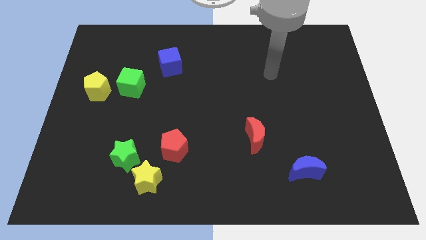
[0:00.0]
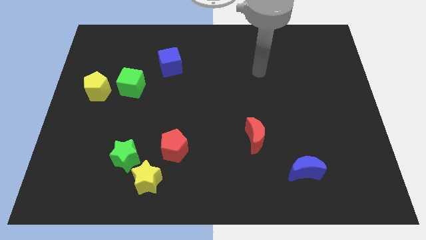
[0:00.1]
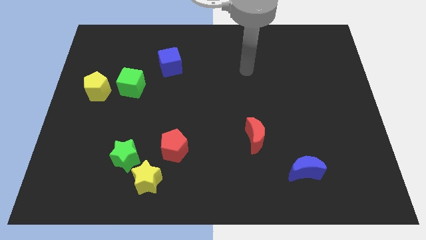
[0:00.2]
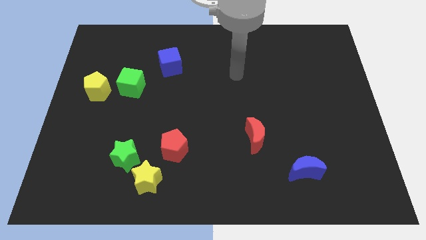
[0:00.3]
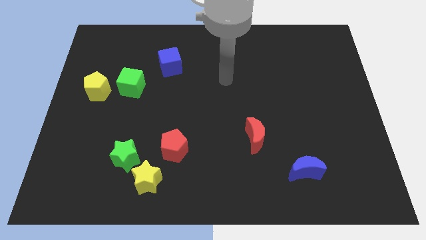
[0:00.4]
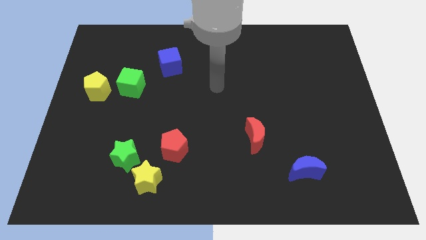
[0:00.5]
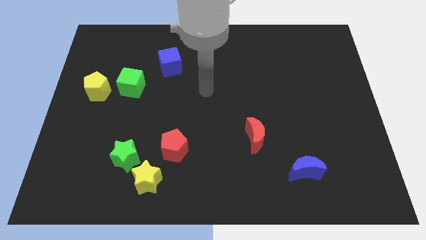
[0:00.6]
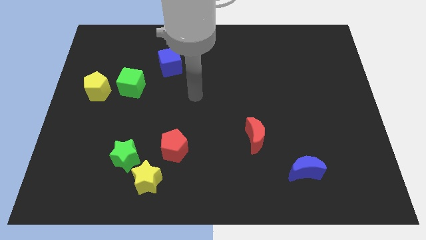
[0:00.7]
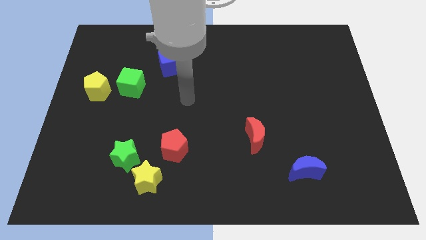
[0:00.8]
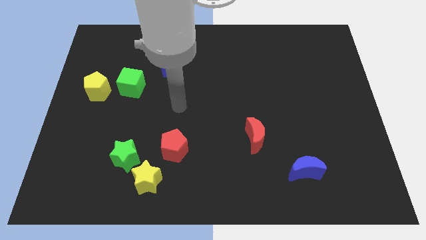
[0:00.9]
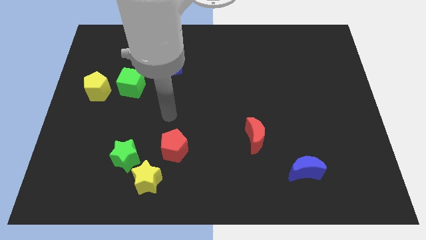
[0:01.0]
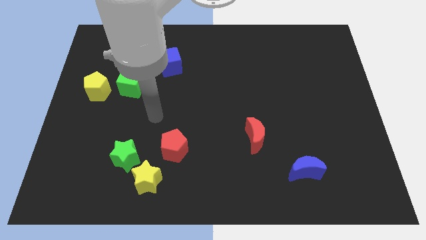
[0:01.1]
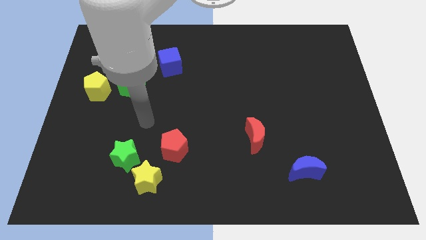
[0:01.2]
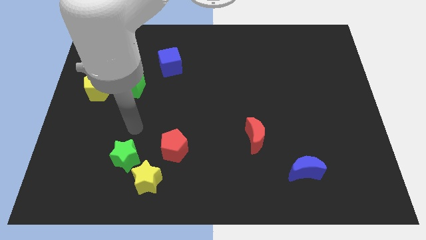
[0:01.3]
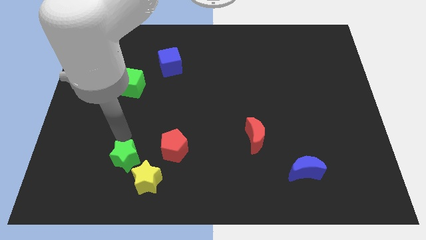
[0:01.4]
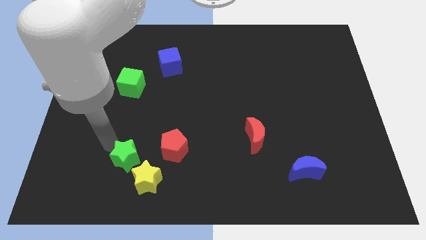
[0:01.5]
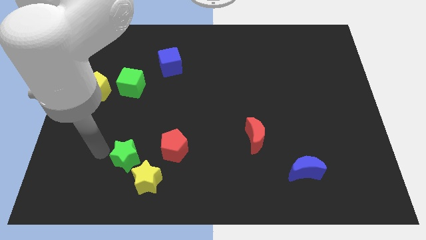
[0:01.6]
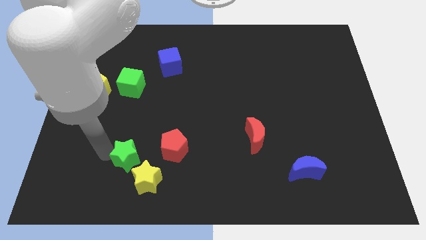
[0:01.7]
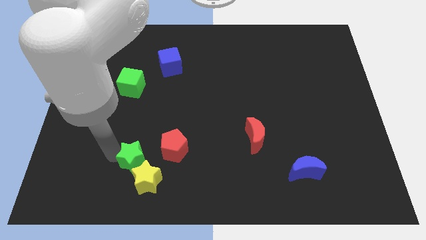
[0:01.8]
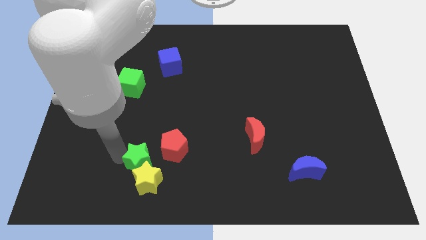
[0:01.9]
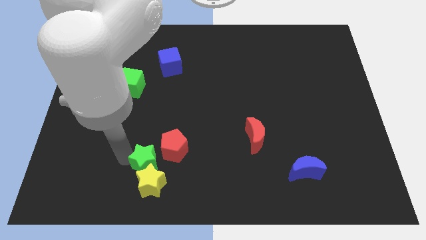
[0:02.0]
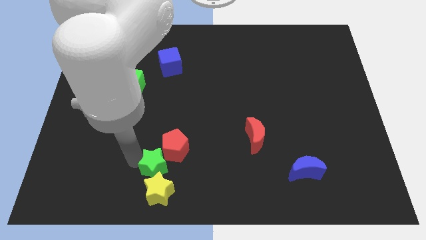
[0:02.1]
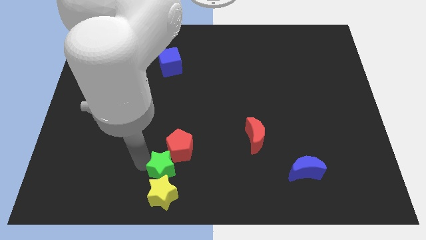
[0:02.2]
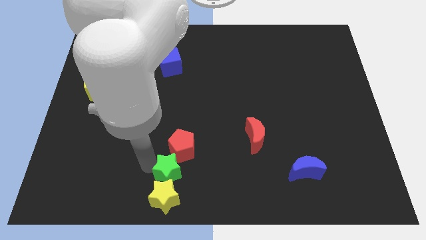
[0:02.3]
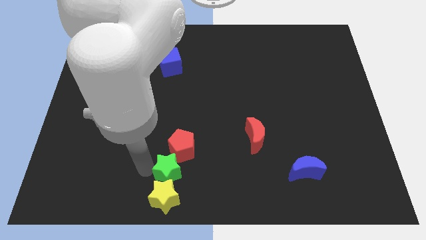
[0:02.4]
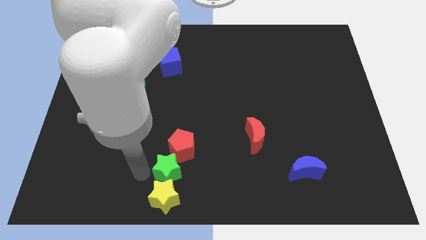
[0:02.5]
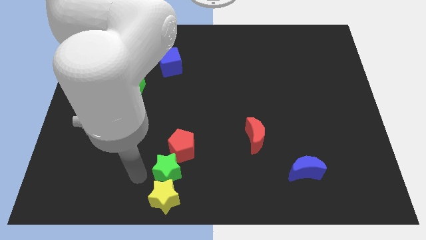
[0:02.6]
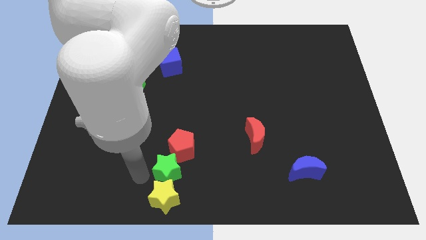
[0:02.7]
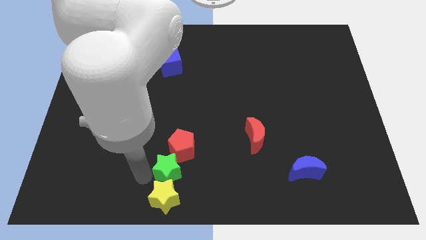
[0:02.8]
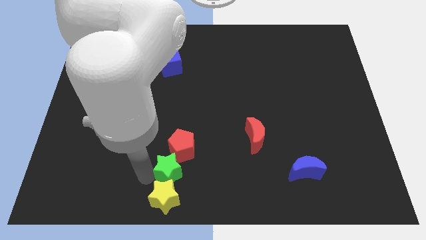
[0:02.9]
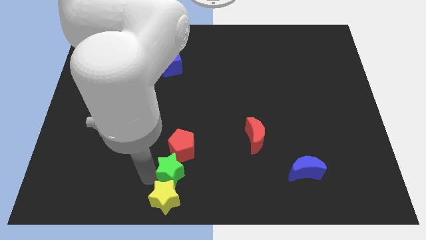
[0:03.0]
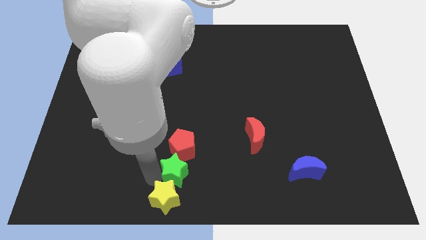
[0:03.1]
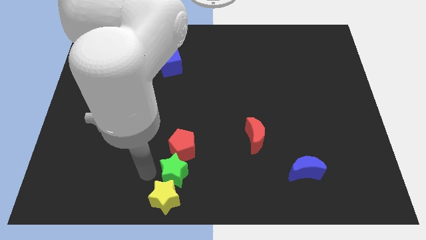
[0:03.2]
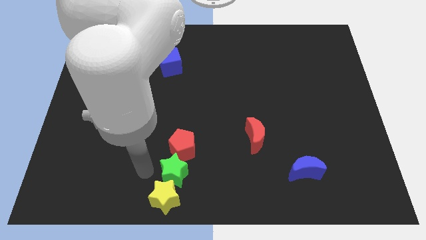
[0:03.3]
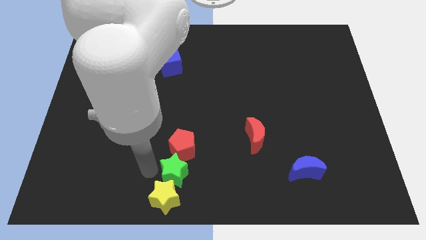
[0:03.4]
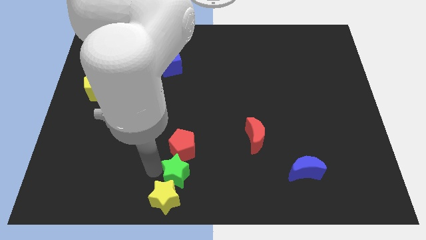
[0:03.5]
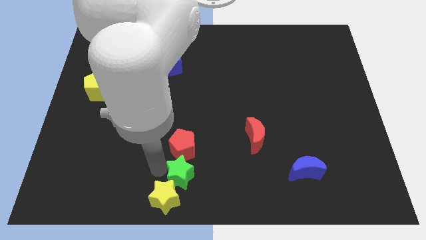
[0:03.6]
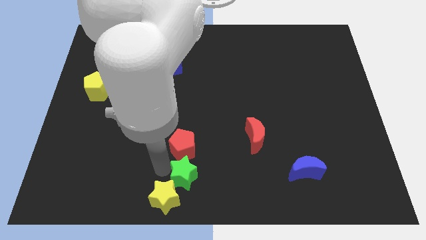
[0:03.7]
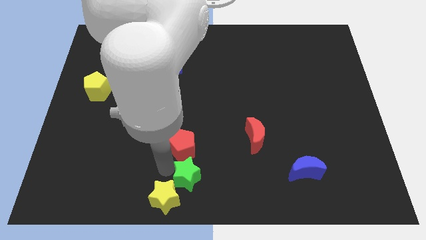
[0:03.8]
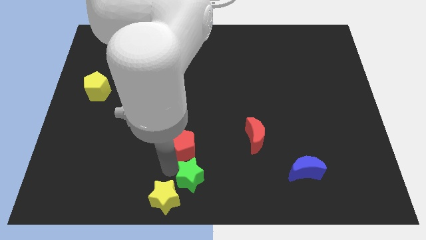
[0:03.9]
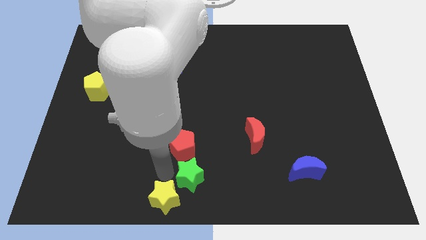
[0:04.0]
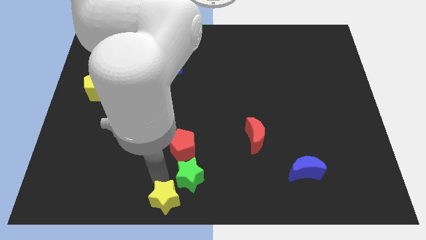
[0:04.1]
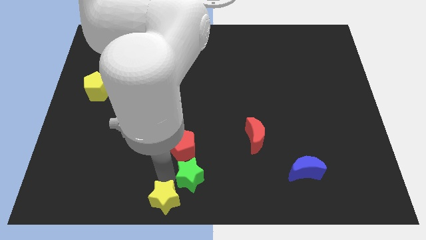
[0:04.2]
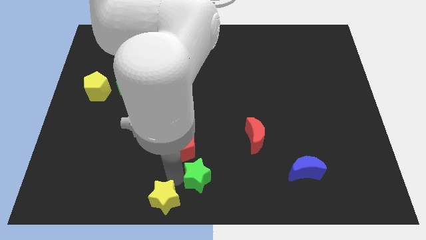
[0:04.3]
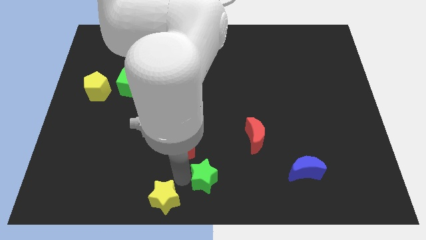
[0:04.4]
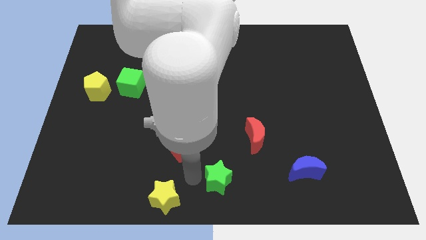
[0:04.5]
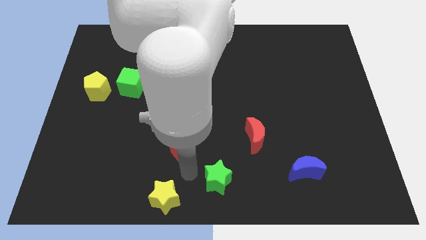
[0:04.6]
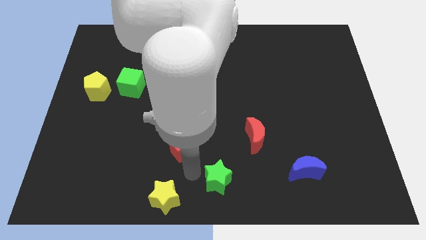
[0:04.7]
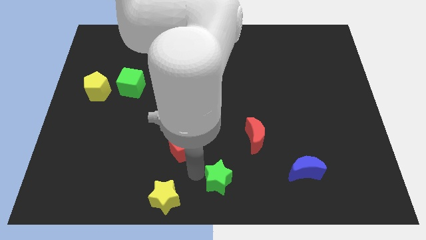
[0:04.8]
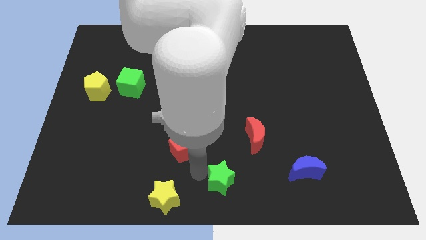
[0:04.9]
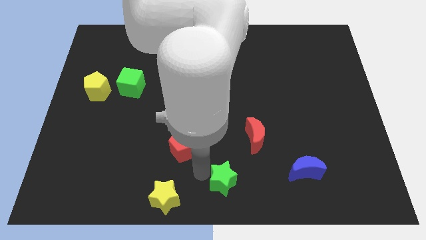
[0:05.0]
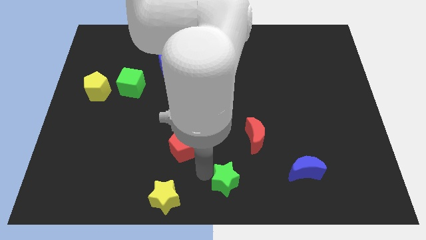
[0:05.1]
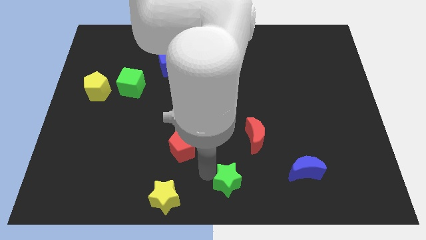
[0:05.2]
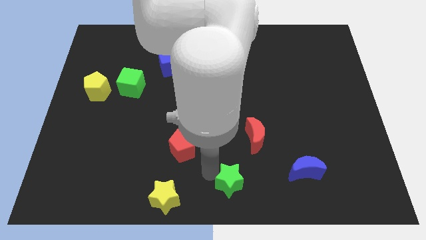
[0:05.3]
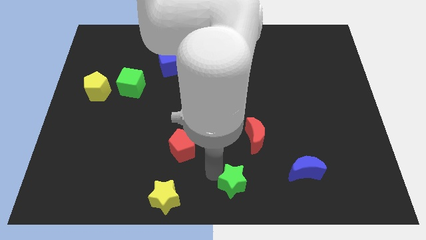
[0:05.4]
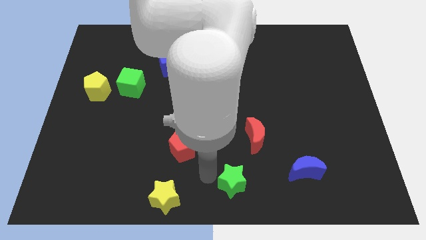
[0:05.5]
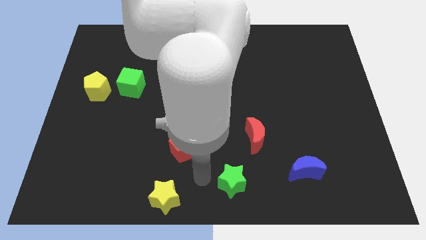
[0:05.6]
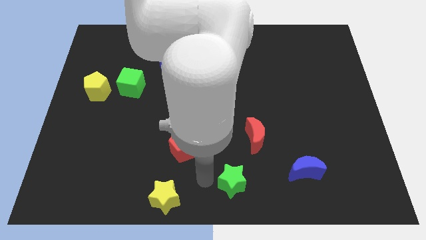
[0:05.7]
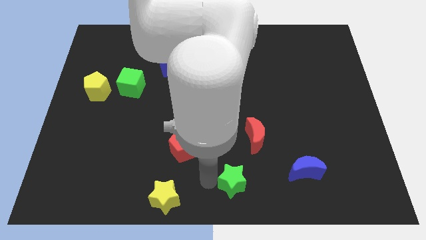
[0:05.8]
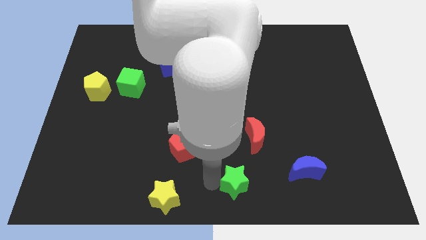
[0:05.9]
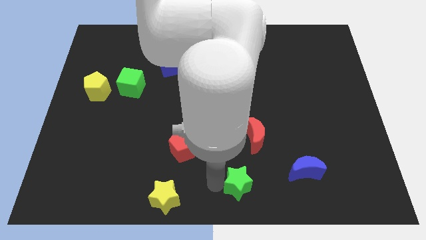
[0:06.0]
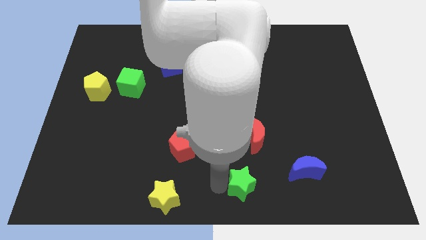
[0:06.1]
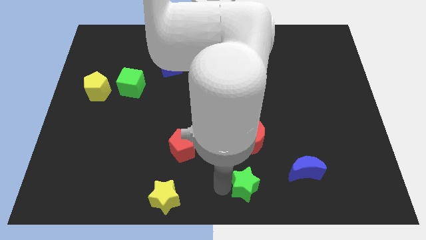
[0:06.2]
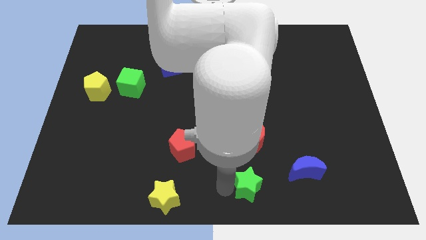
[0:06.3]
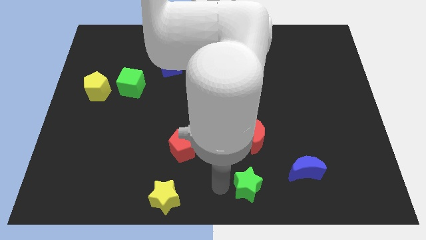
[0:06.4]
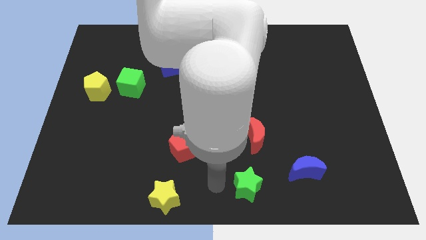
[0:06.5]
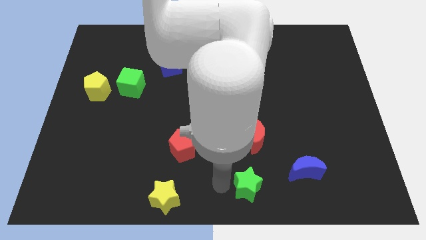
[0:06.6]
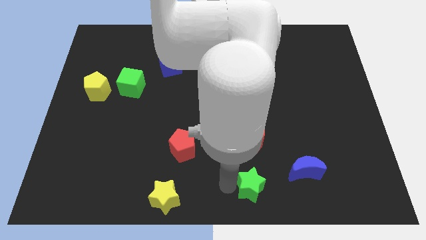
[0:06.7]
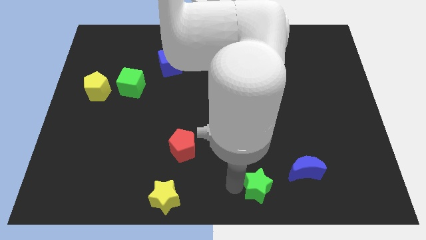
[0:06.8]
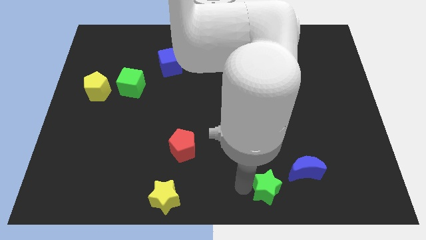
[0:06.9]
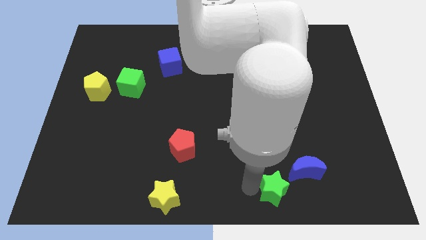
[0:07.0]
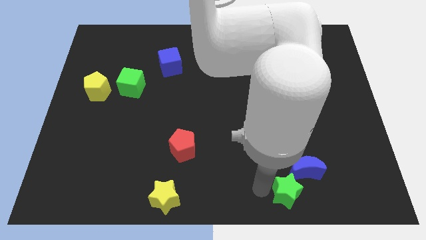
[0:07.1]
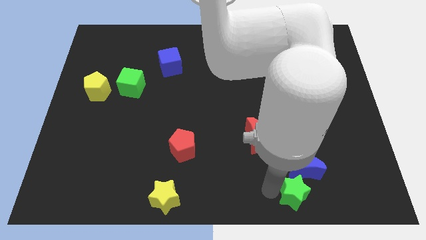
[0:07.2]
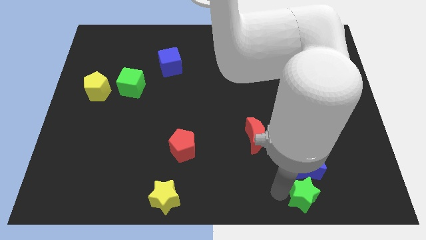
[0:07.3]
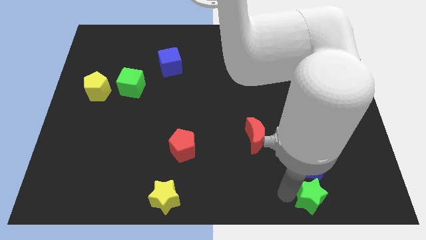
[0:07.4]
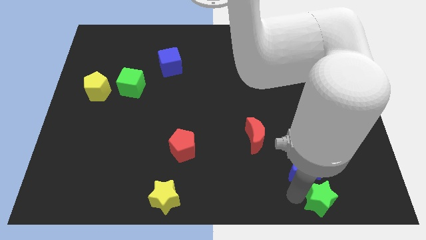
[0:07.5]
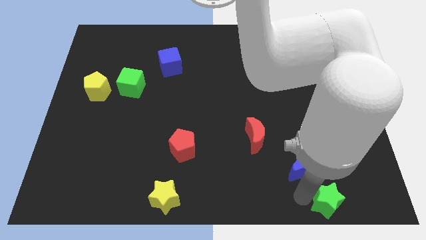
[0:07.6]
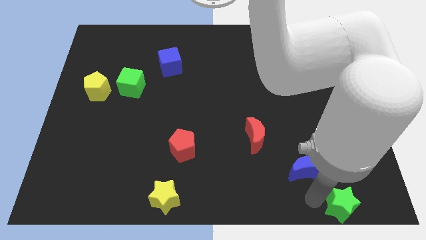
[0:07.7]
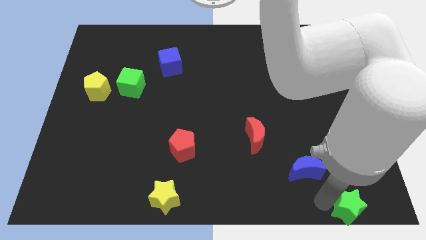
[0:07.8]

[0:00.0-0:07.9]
slide the green star to the lower right corner
